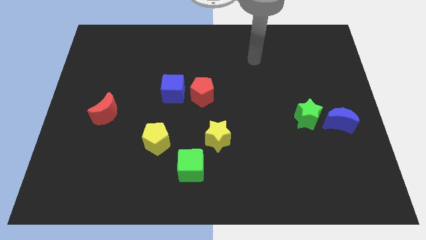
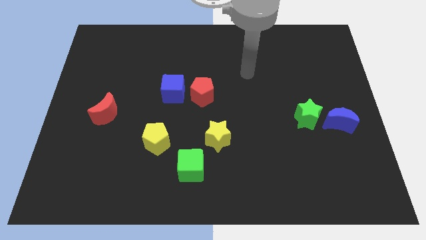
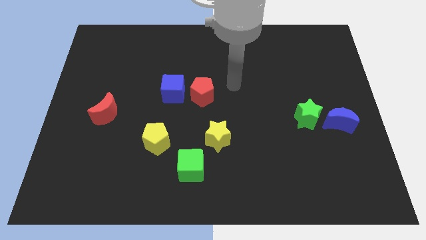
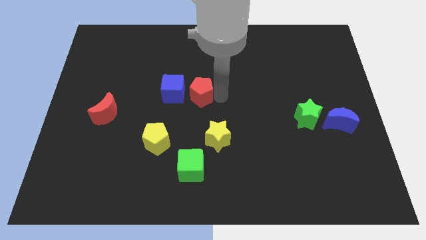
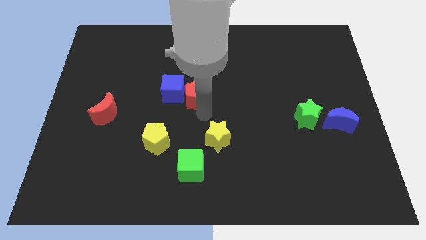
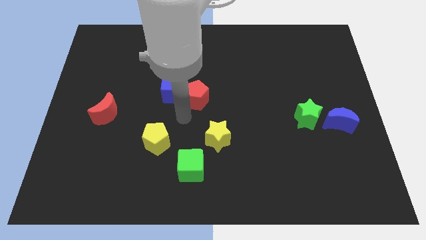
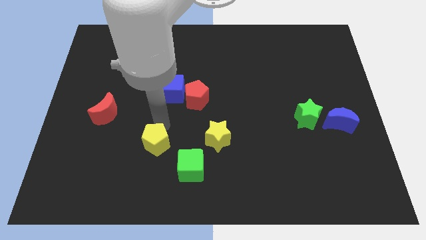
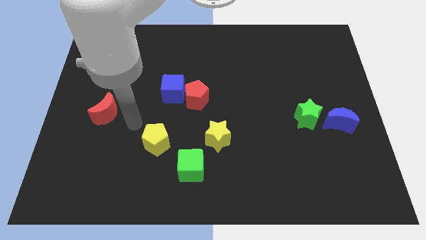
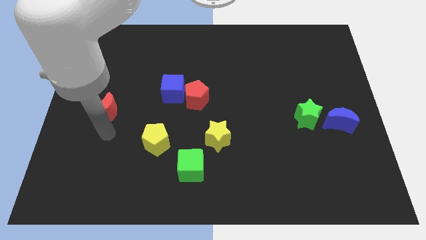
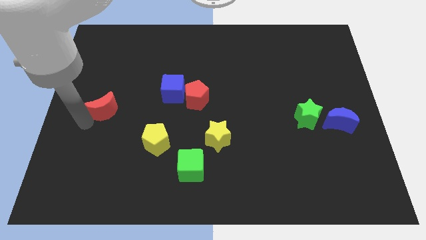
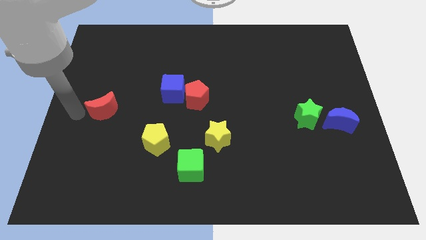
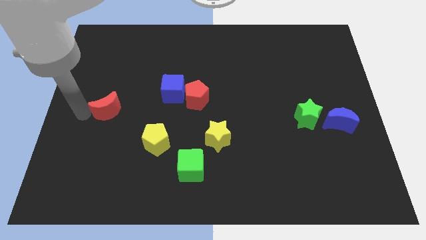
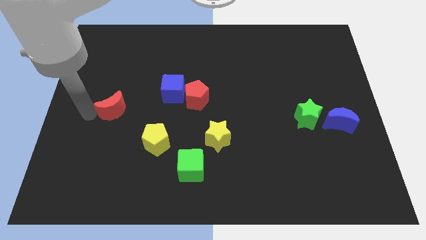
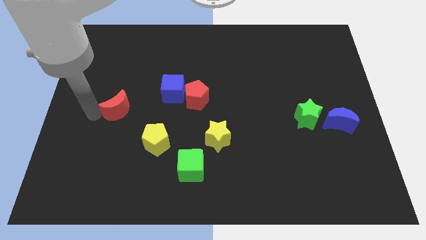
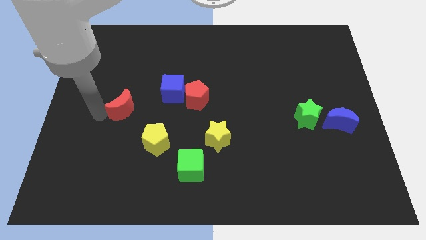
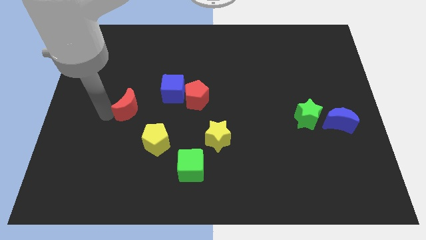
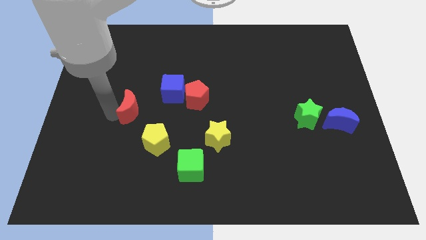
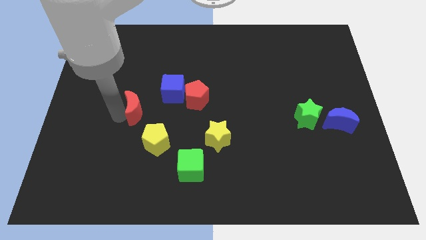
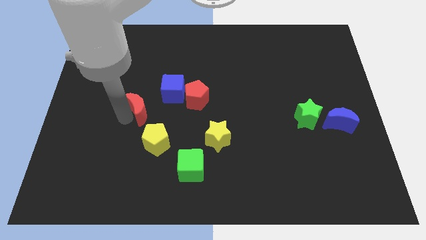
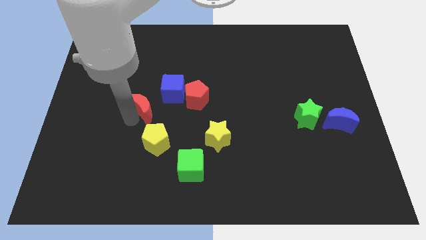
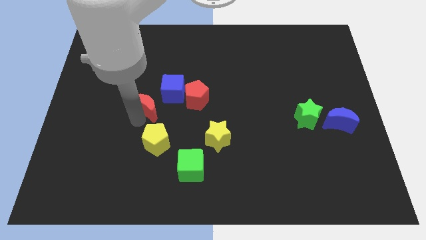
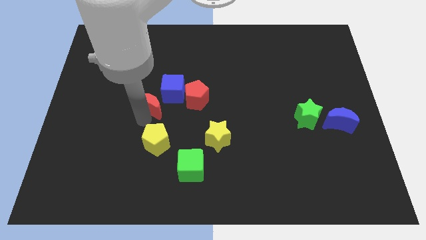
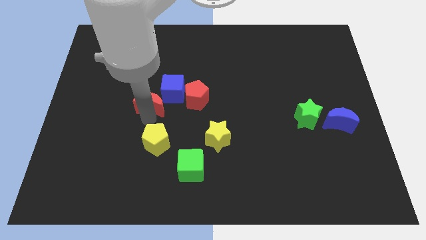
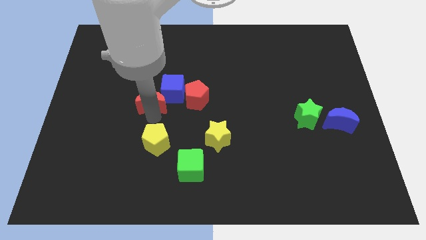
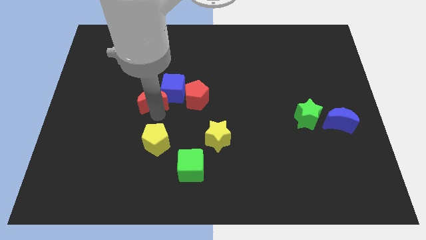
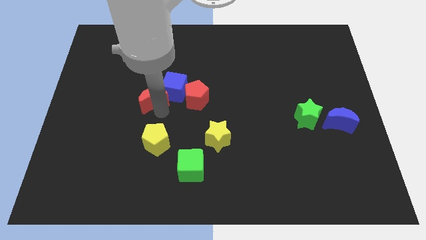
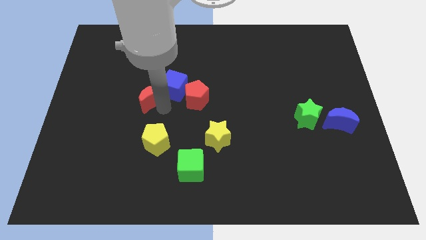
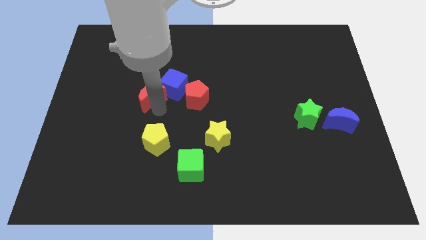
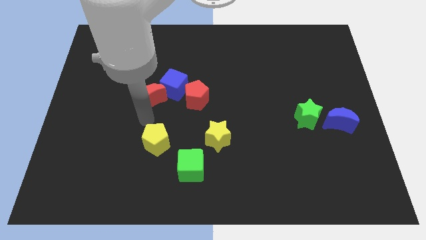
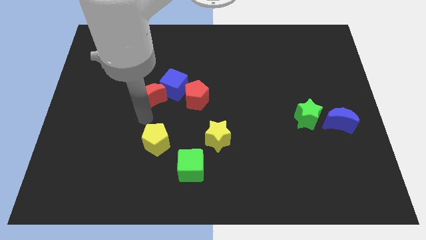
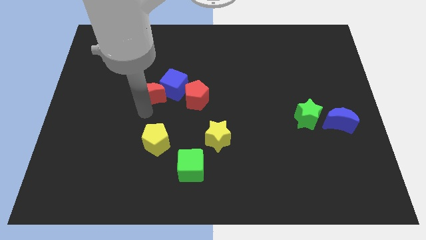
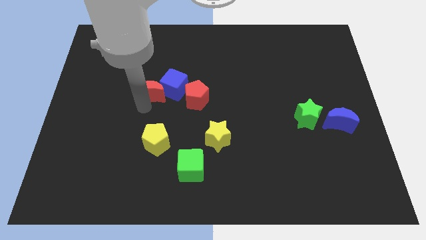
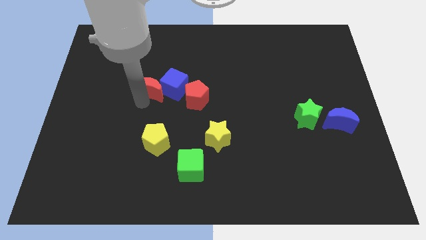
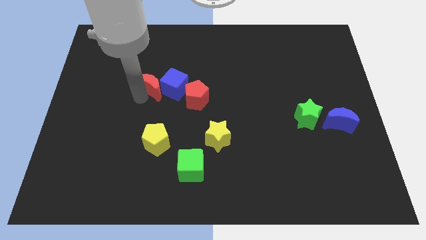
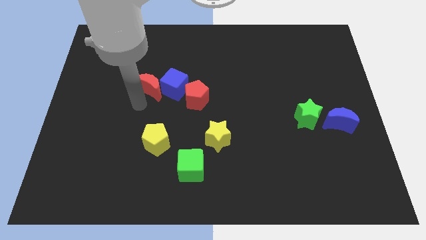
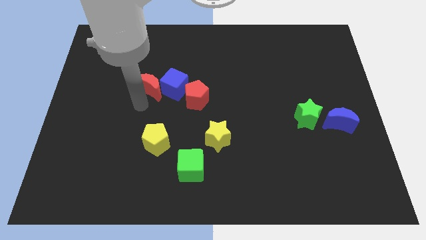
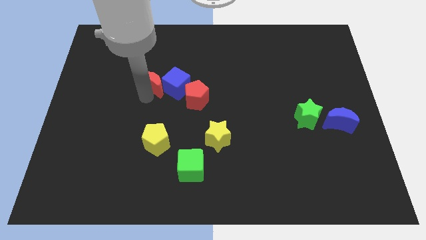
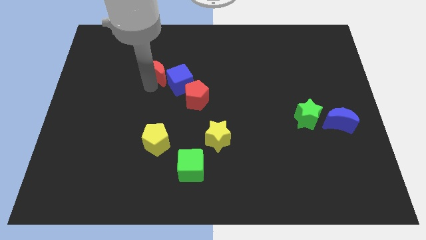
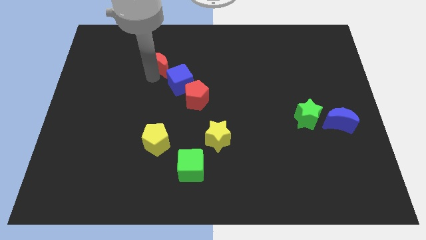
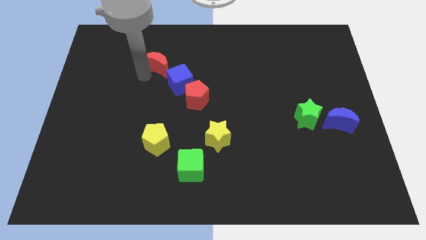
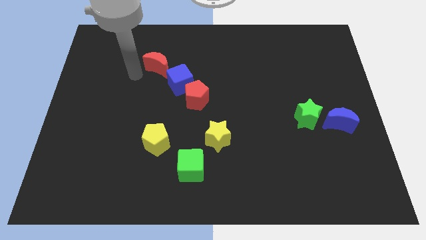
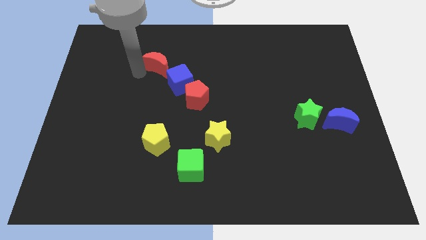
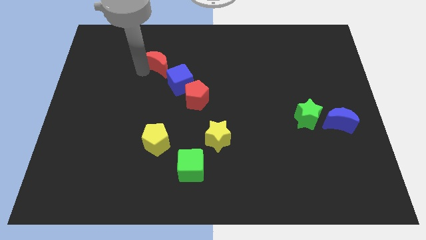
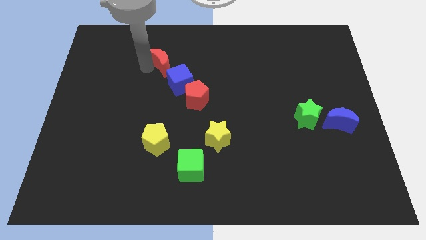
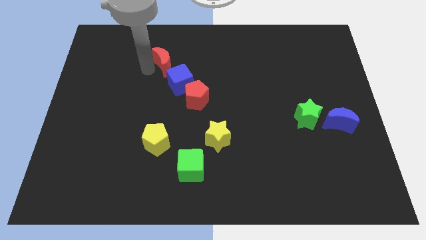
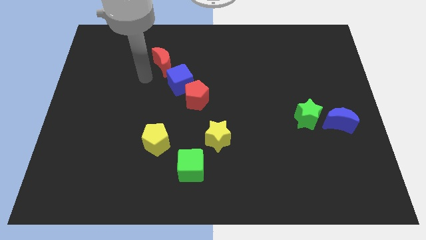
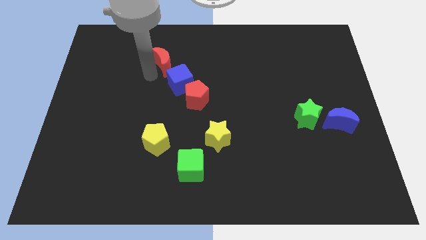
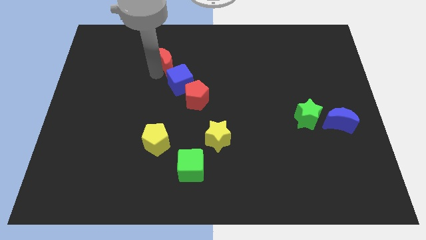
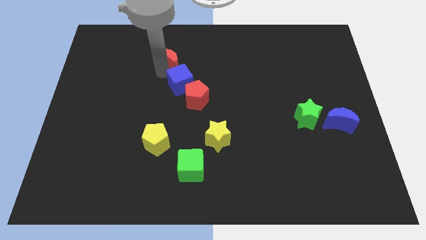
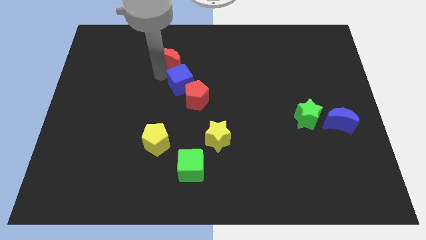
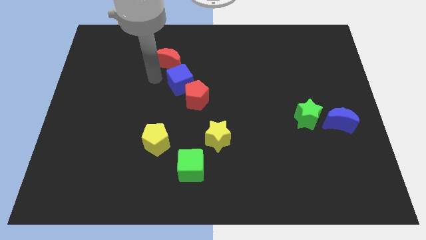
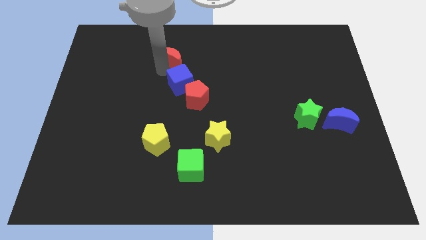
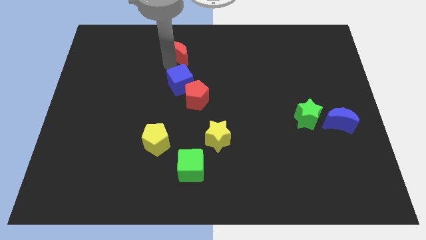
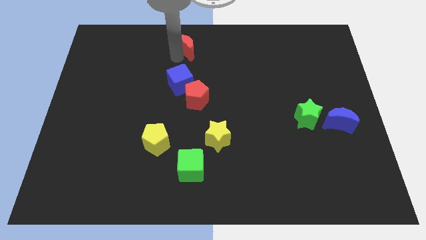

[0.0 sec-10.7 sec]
move the red moon to the top

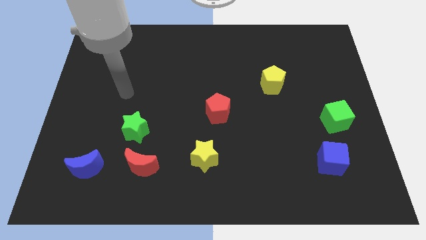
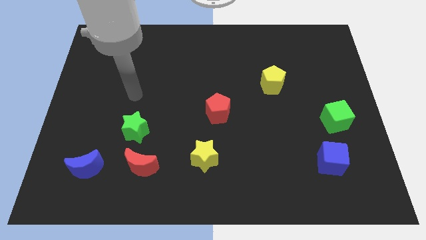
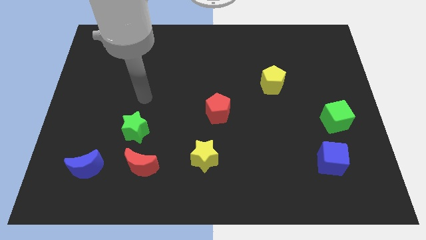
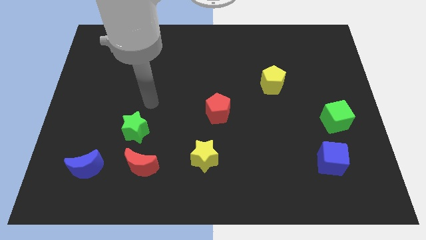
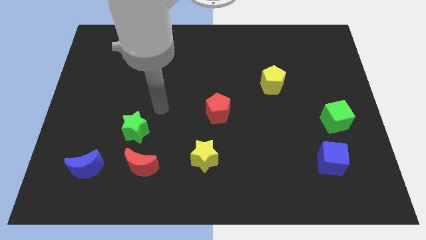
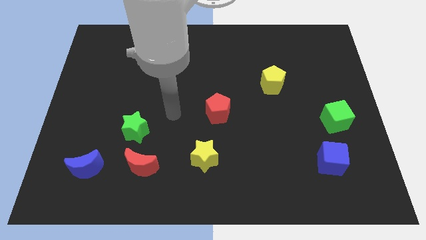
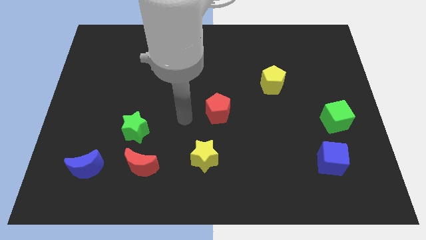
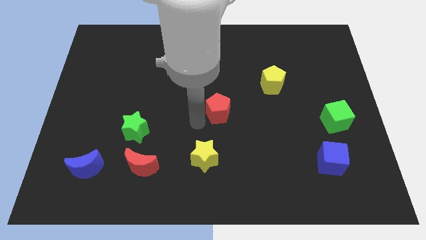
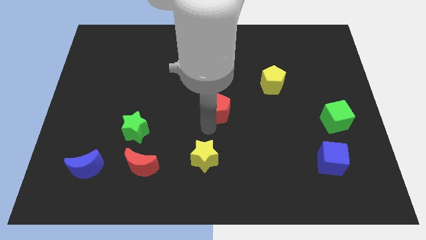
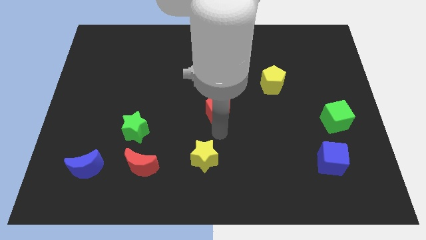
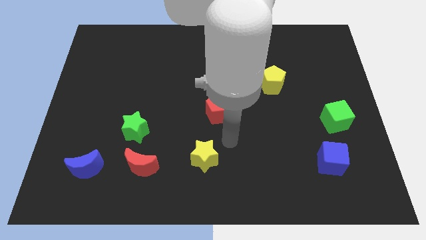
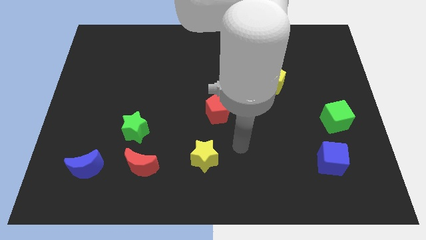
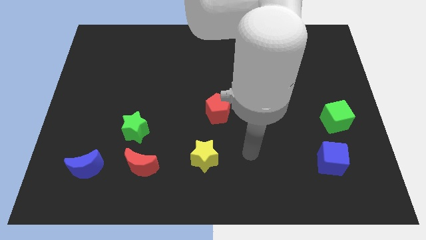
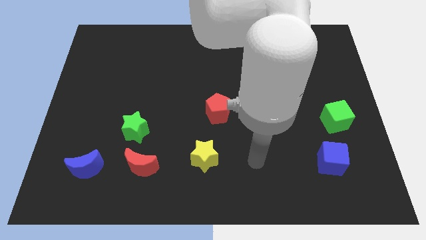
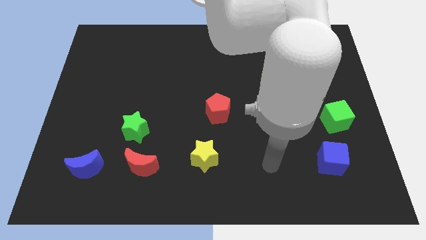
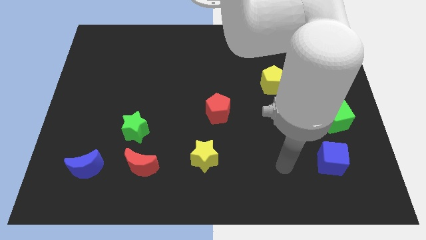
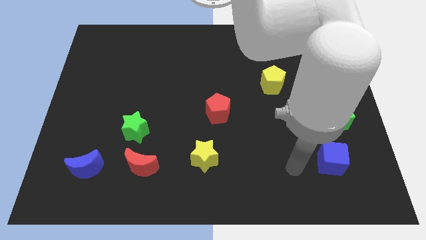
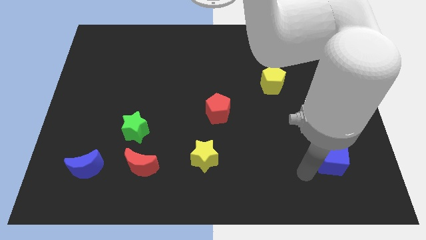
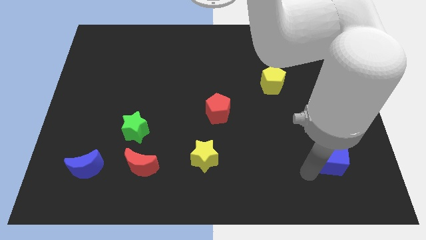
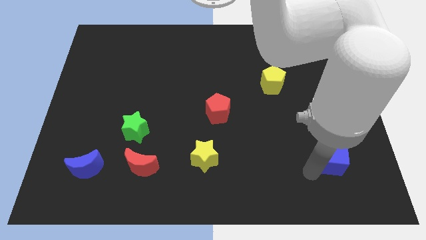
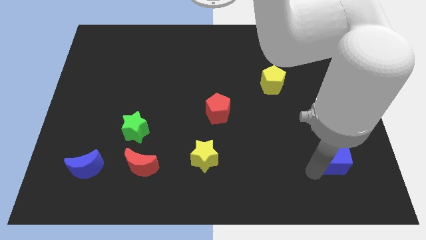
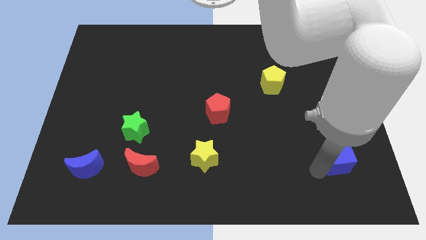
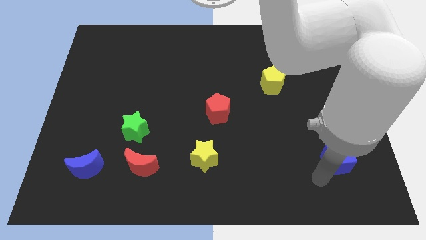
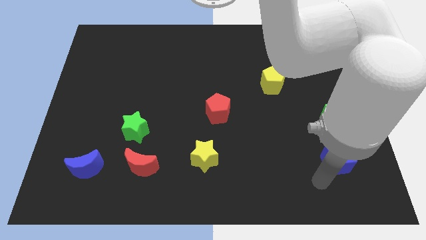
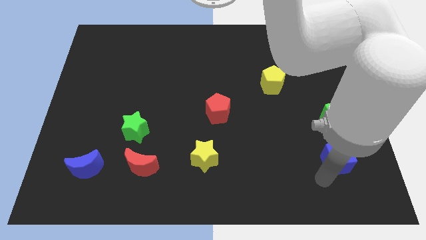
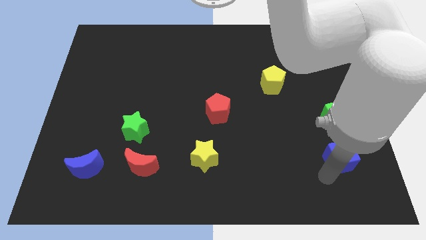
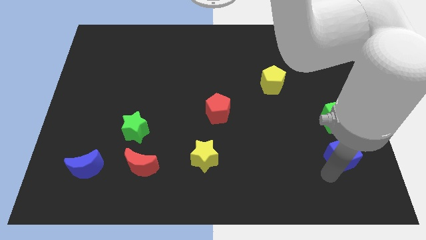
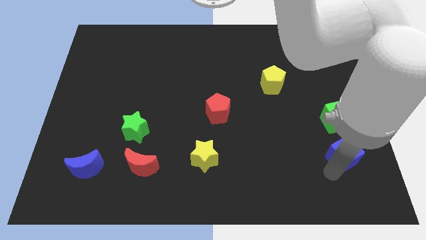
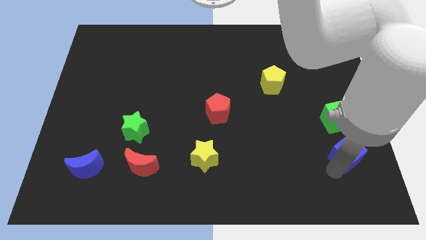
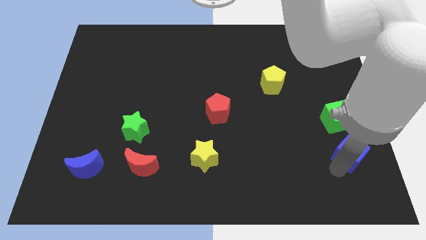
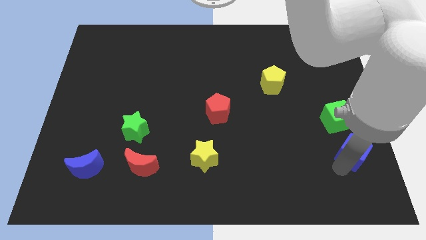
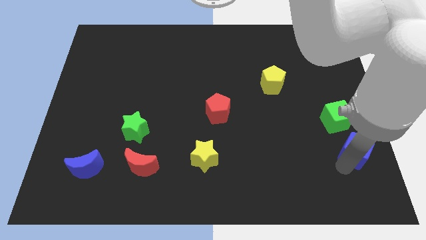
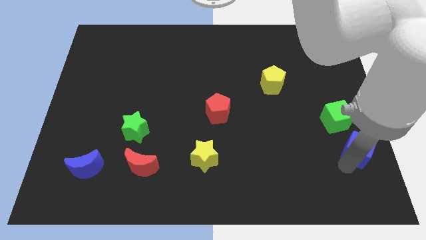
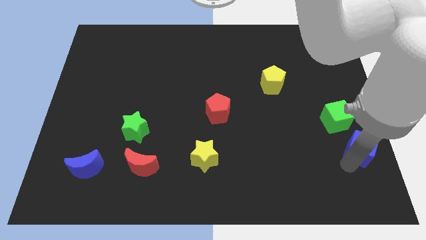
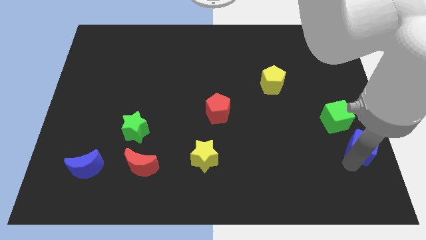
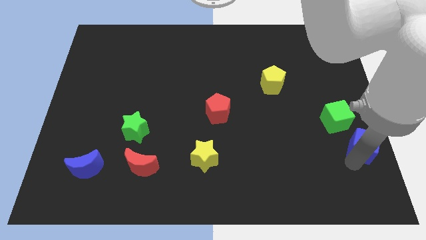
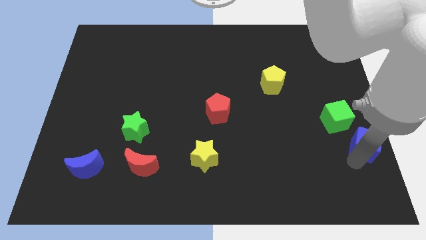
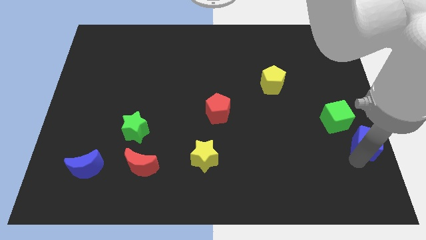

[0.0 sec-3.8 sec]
slide the blue cube to the center right
